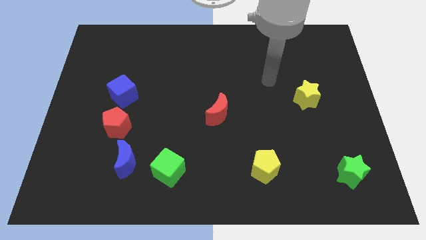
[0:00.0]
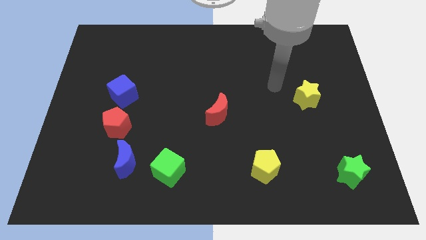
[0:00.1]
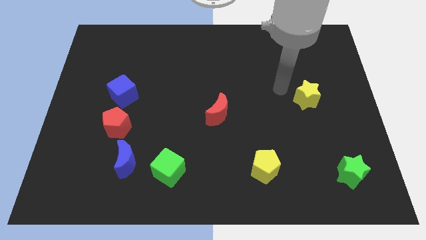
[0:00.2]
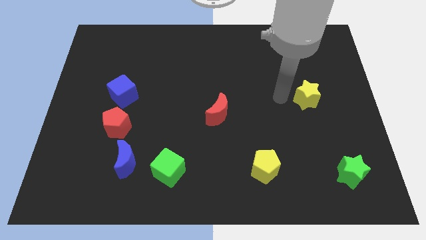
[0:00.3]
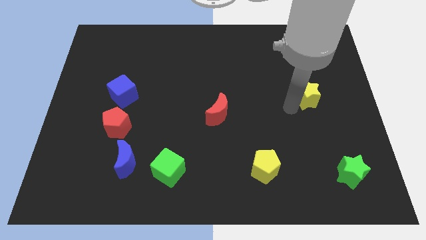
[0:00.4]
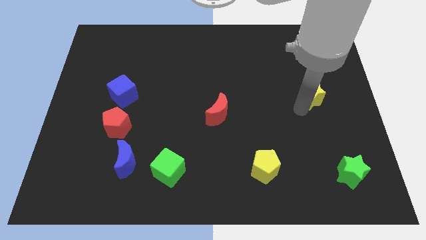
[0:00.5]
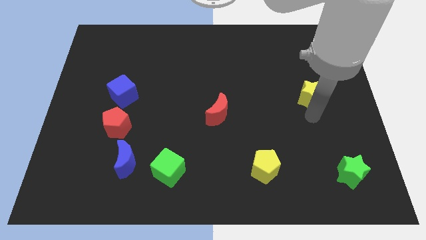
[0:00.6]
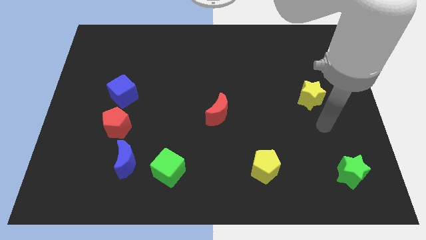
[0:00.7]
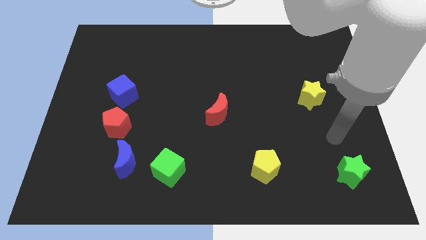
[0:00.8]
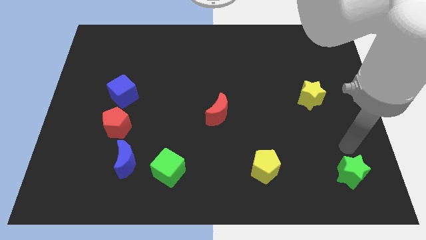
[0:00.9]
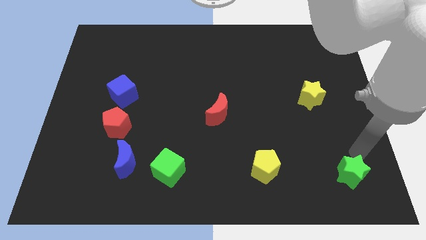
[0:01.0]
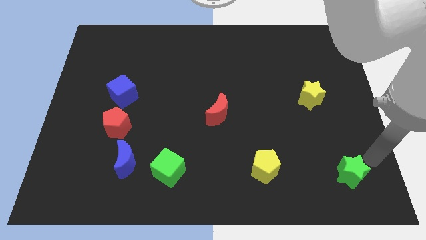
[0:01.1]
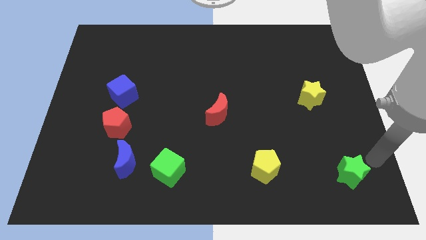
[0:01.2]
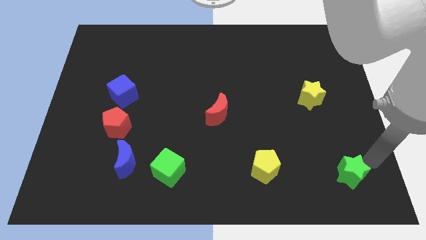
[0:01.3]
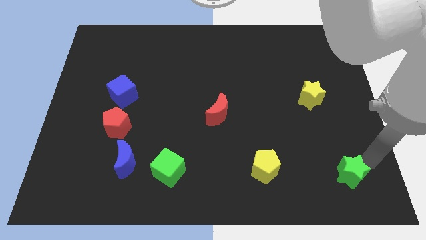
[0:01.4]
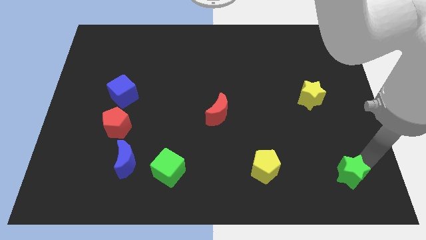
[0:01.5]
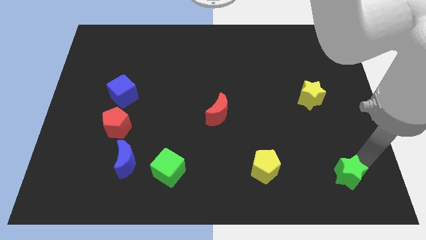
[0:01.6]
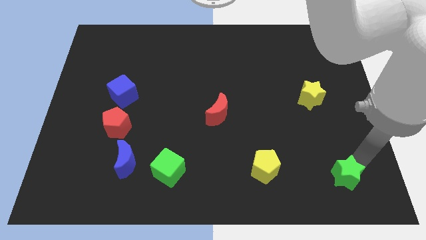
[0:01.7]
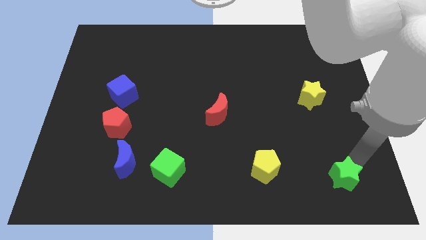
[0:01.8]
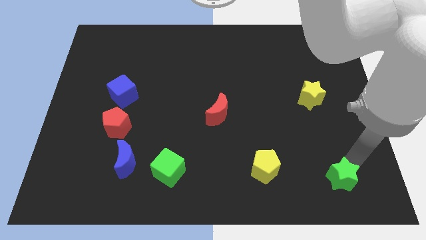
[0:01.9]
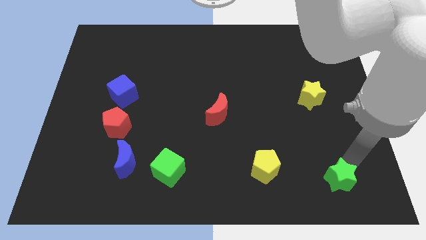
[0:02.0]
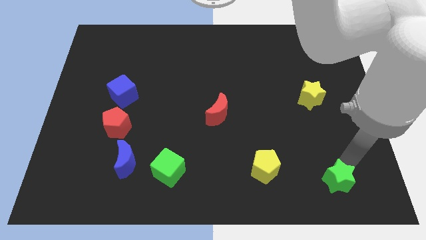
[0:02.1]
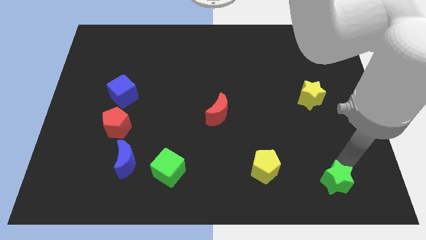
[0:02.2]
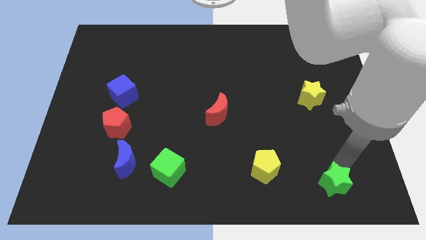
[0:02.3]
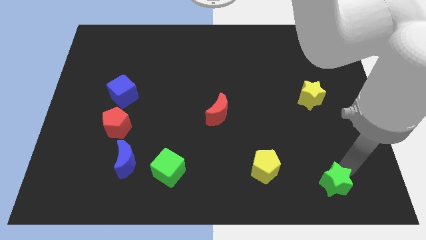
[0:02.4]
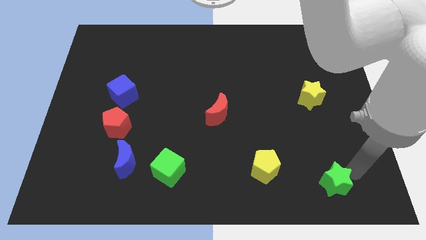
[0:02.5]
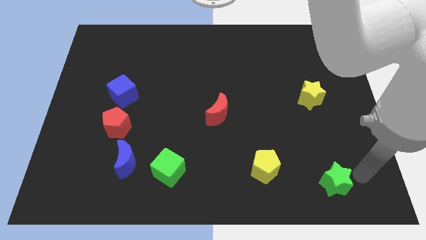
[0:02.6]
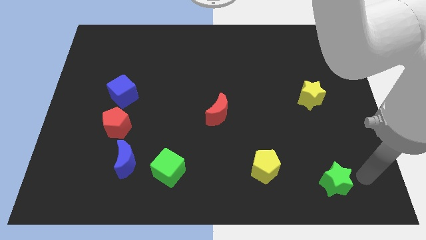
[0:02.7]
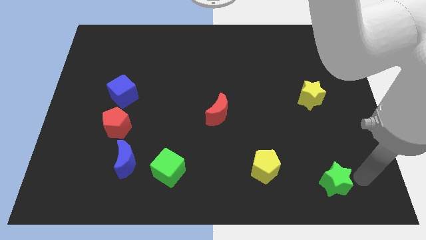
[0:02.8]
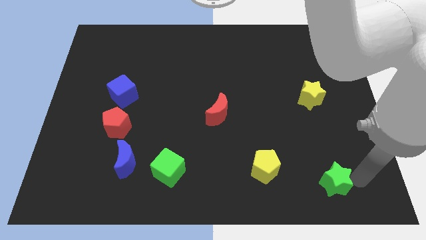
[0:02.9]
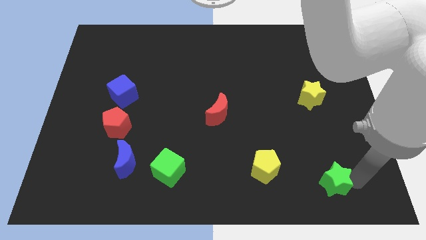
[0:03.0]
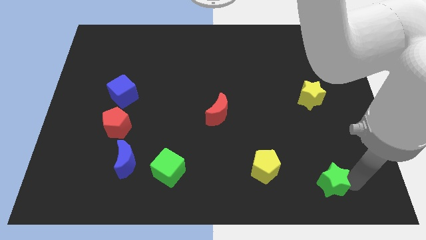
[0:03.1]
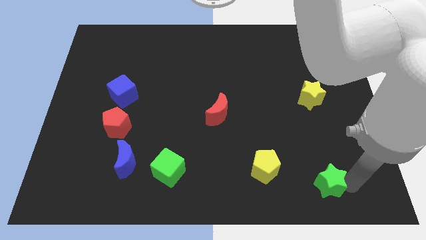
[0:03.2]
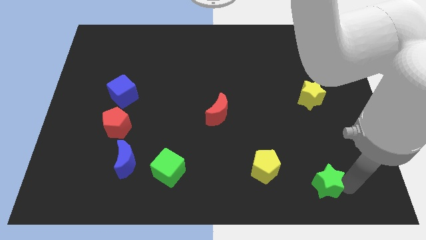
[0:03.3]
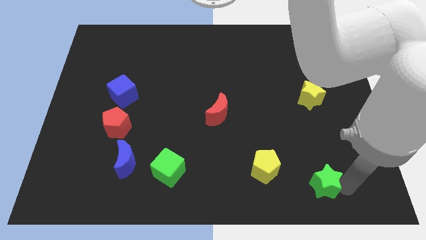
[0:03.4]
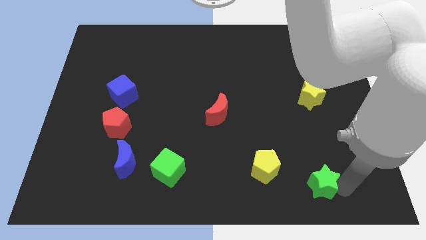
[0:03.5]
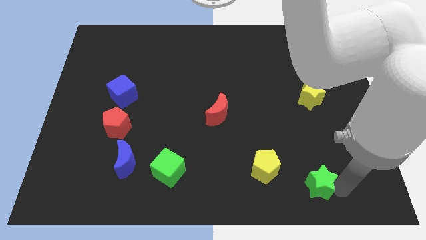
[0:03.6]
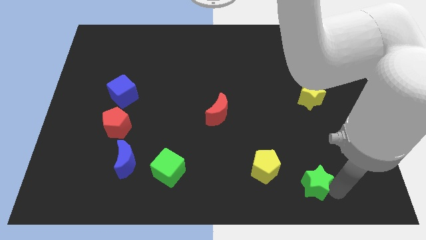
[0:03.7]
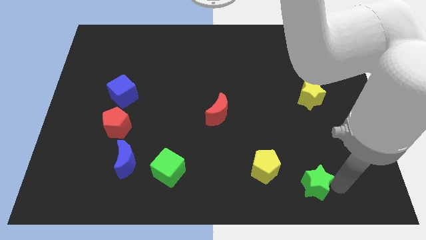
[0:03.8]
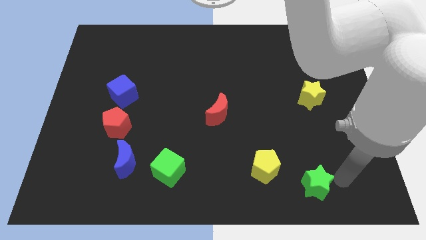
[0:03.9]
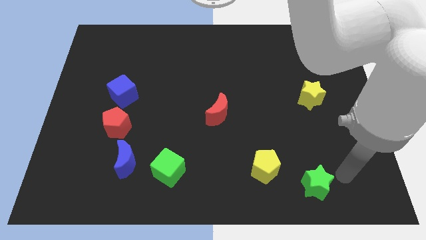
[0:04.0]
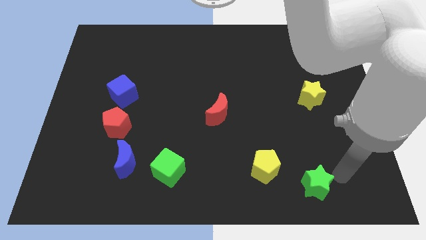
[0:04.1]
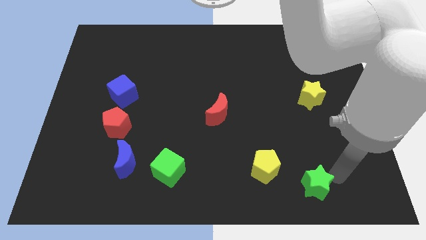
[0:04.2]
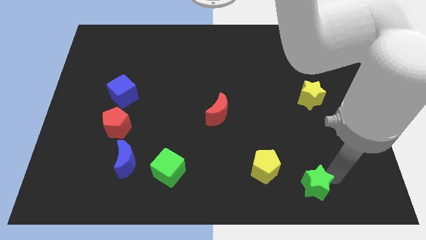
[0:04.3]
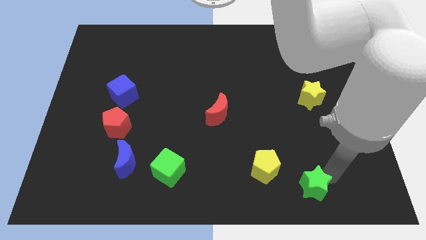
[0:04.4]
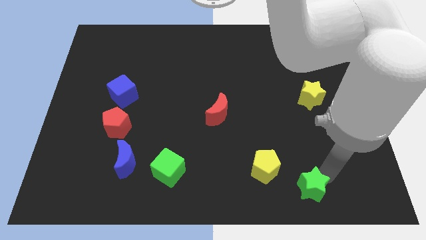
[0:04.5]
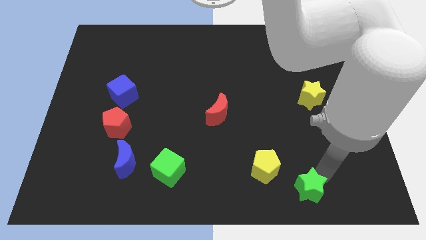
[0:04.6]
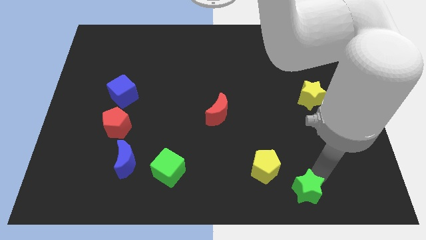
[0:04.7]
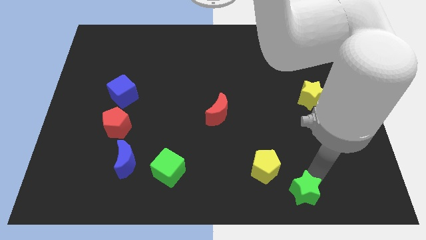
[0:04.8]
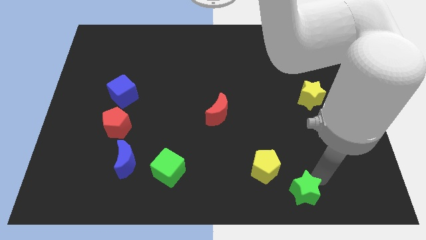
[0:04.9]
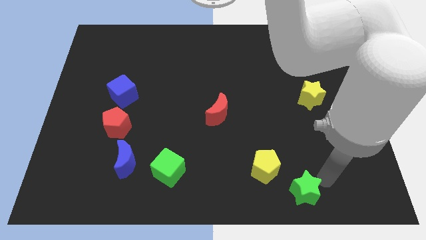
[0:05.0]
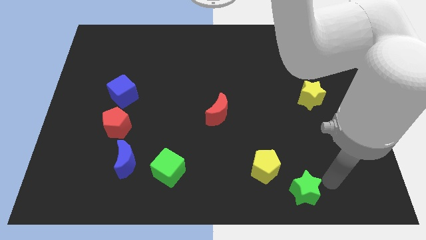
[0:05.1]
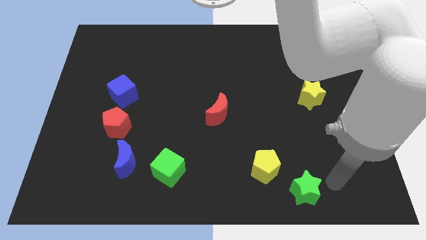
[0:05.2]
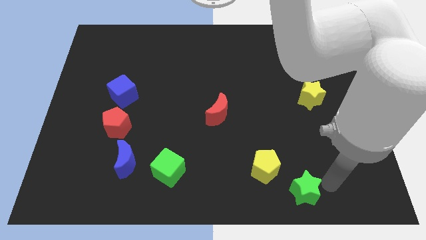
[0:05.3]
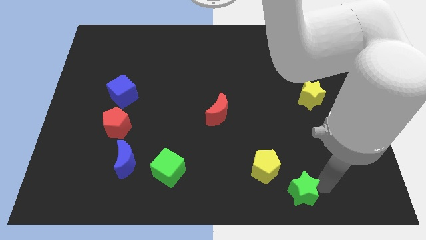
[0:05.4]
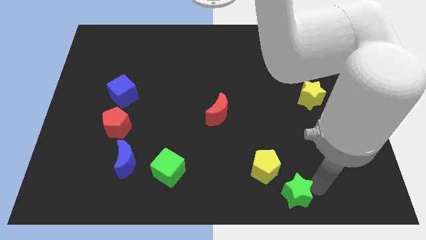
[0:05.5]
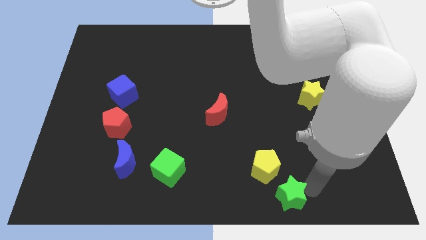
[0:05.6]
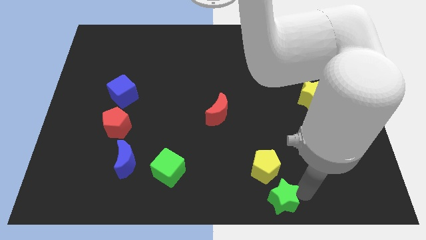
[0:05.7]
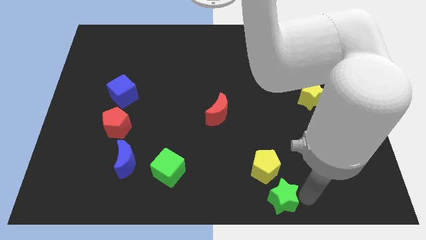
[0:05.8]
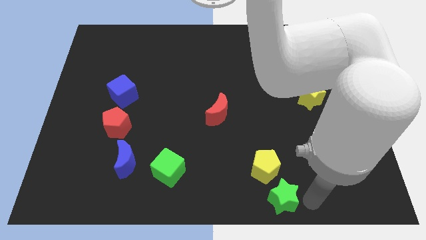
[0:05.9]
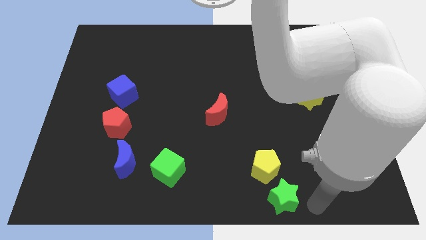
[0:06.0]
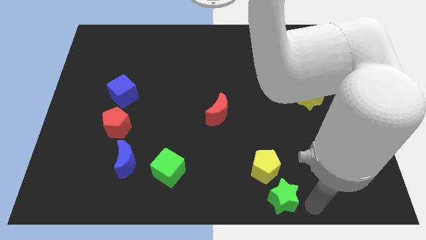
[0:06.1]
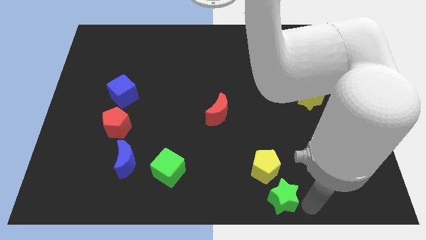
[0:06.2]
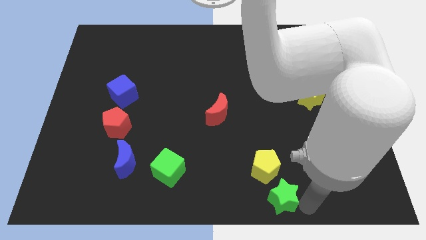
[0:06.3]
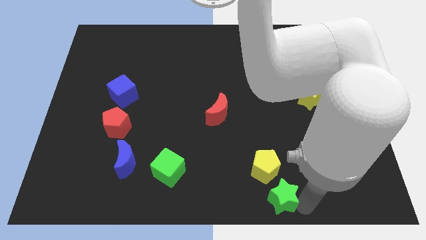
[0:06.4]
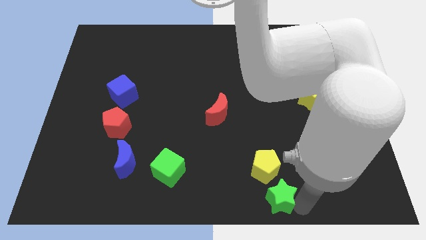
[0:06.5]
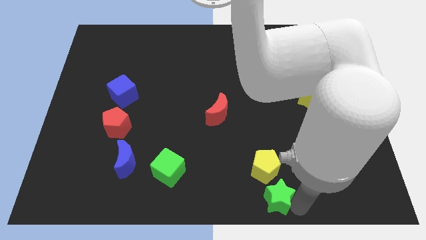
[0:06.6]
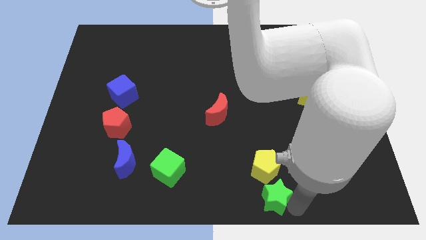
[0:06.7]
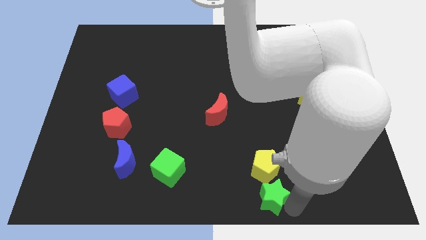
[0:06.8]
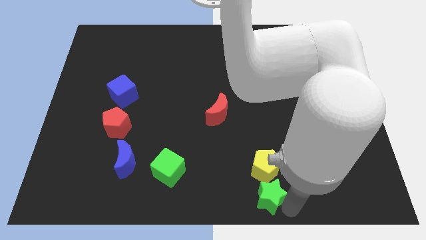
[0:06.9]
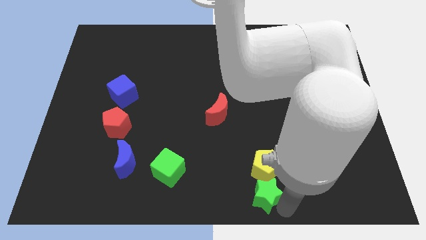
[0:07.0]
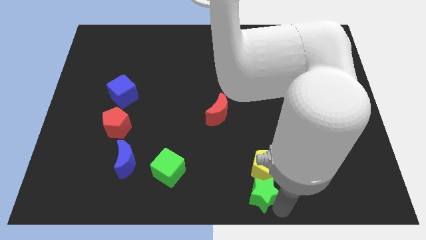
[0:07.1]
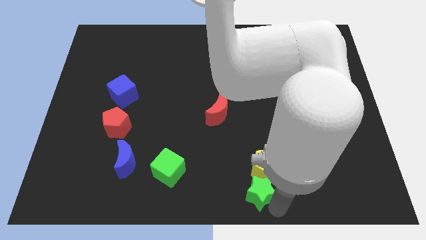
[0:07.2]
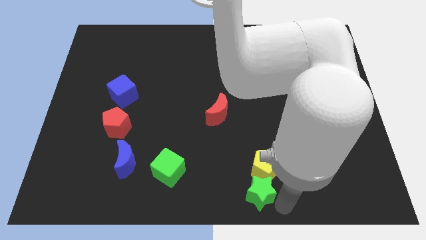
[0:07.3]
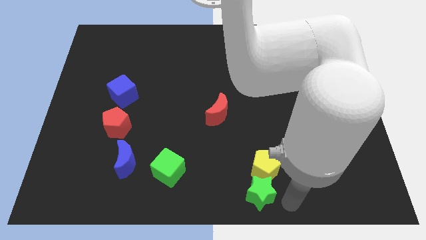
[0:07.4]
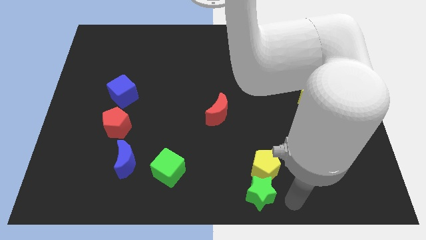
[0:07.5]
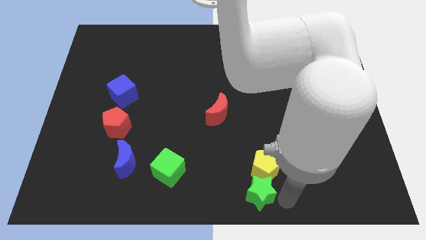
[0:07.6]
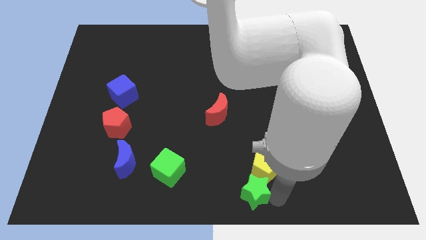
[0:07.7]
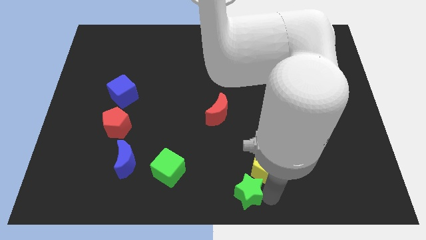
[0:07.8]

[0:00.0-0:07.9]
move the green star to the left

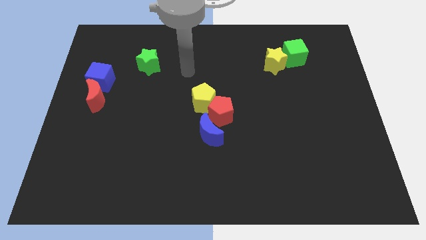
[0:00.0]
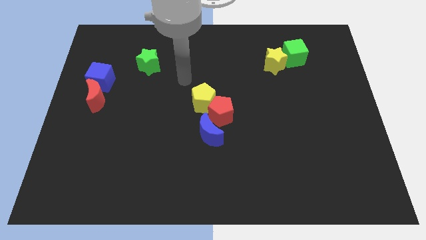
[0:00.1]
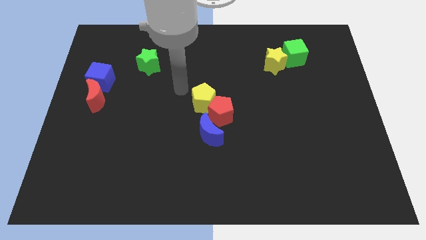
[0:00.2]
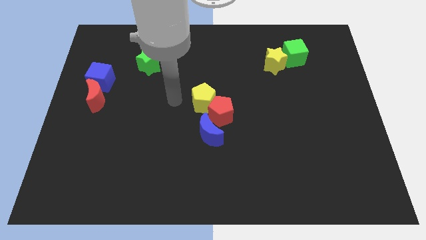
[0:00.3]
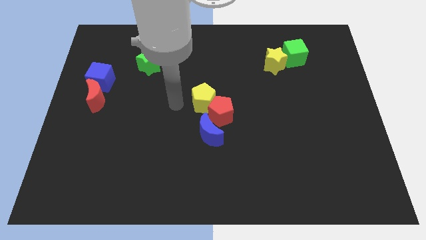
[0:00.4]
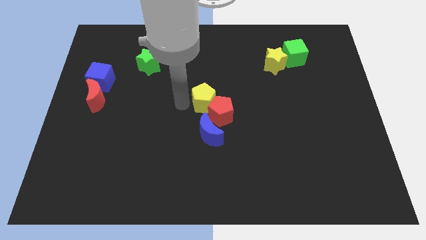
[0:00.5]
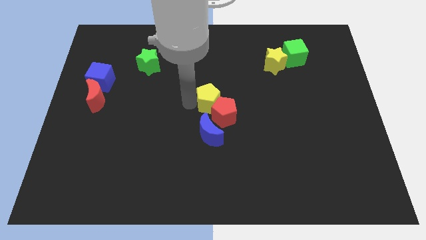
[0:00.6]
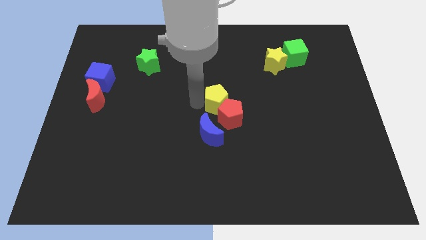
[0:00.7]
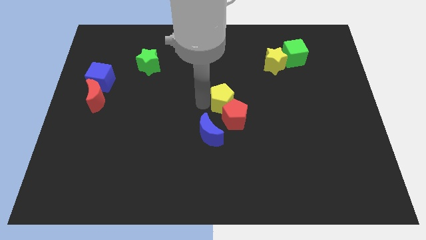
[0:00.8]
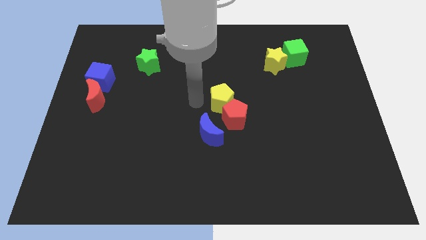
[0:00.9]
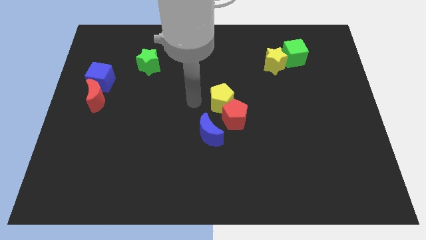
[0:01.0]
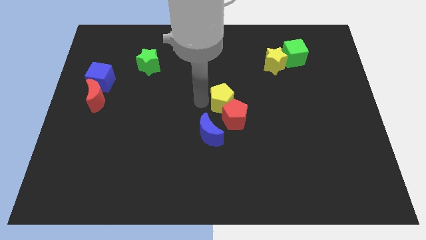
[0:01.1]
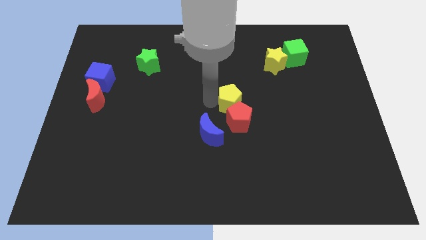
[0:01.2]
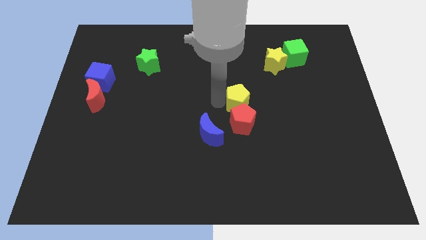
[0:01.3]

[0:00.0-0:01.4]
move the yellow pentagon right slightly
